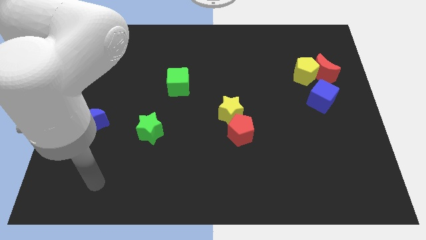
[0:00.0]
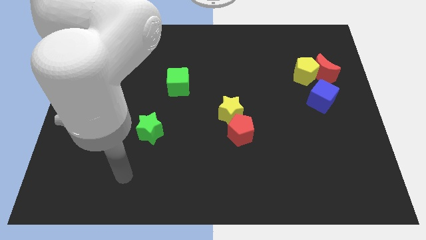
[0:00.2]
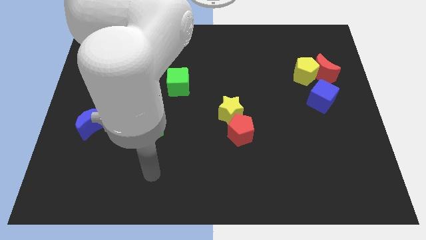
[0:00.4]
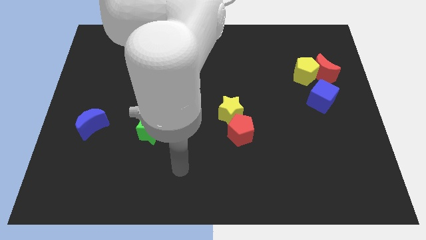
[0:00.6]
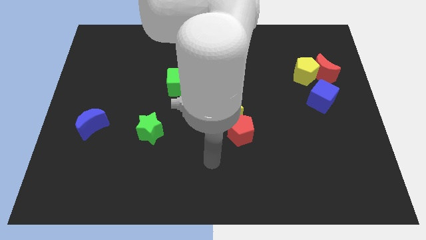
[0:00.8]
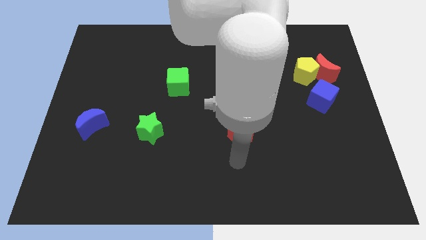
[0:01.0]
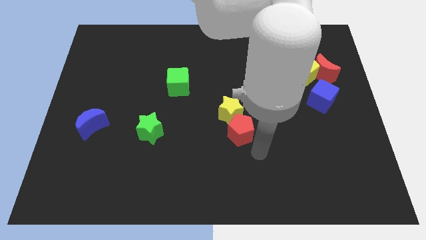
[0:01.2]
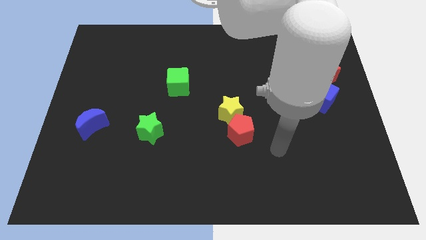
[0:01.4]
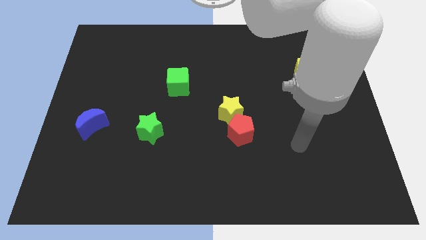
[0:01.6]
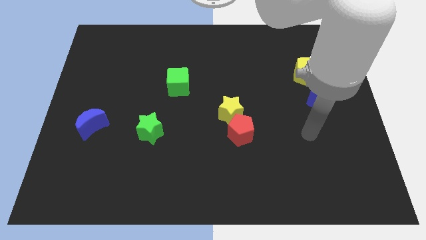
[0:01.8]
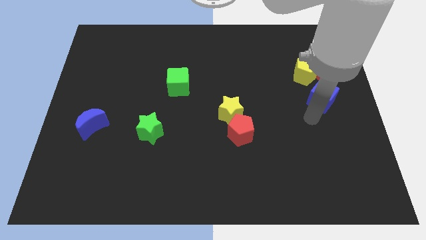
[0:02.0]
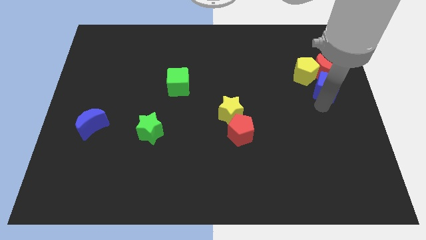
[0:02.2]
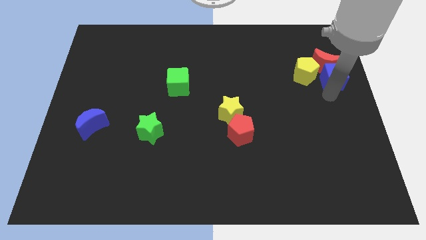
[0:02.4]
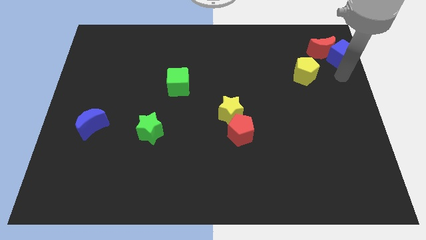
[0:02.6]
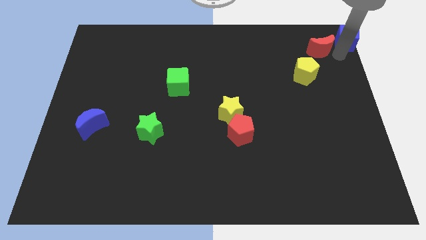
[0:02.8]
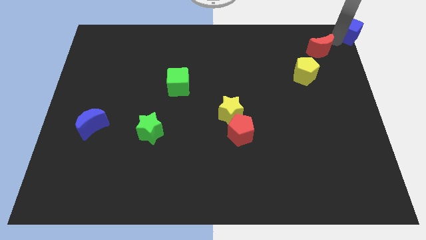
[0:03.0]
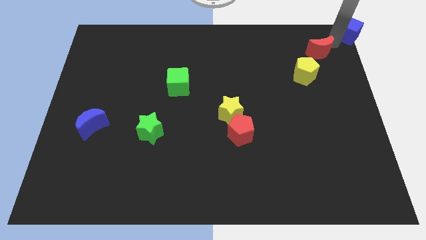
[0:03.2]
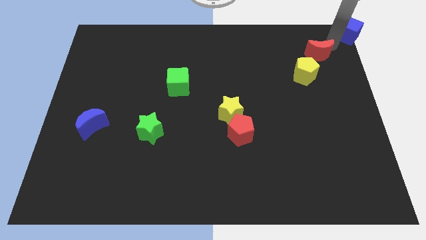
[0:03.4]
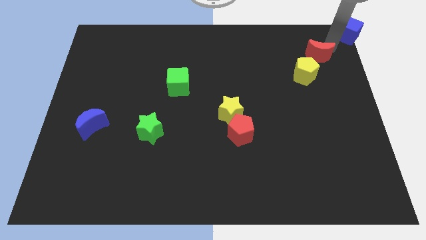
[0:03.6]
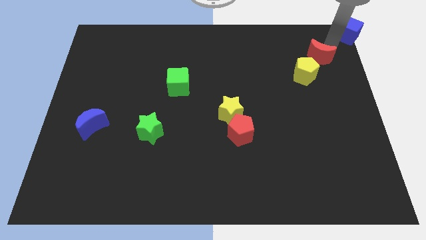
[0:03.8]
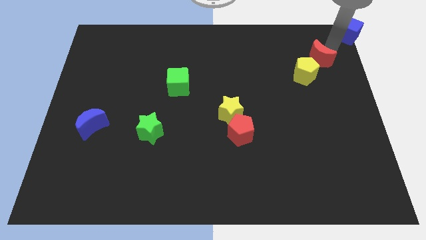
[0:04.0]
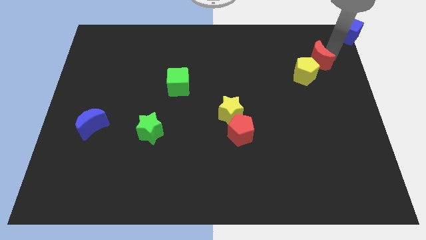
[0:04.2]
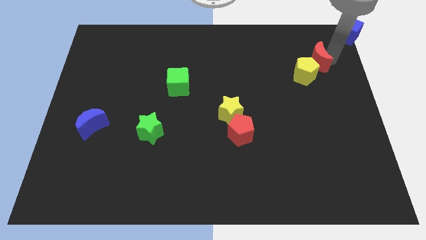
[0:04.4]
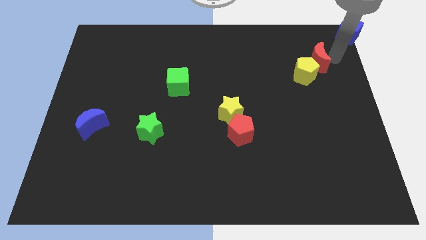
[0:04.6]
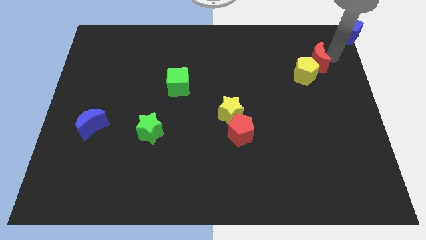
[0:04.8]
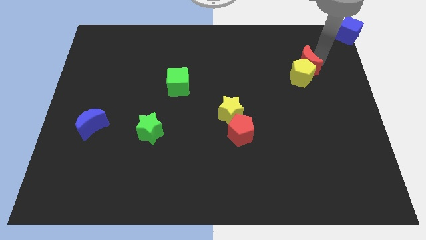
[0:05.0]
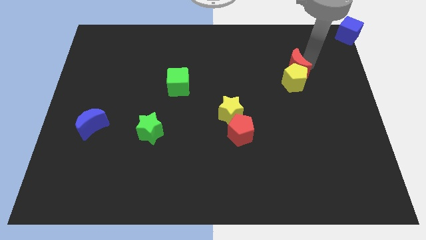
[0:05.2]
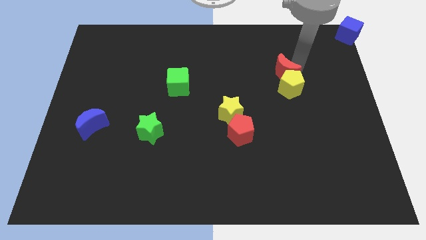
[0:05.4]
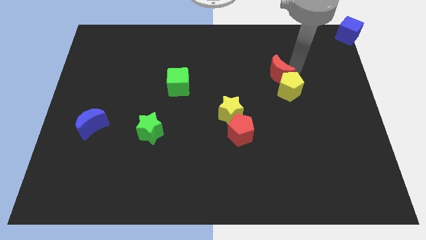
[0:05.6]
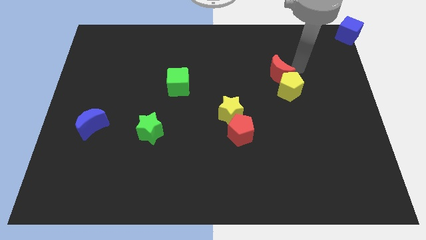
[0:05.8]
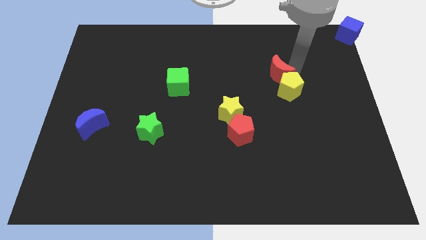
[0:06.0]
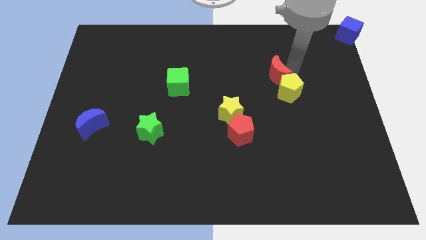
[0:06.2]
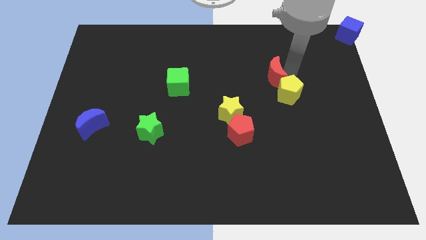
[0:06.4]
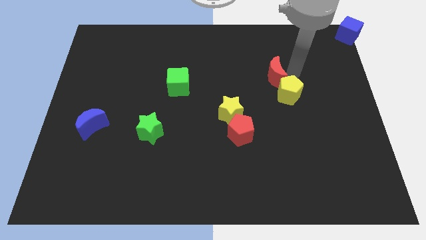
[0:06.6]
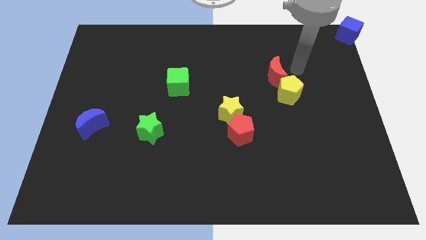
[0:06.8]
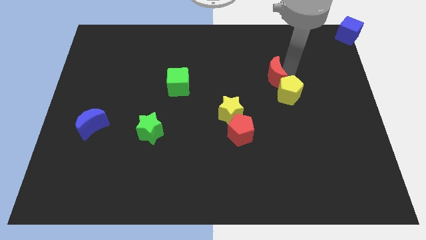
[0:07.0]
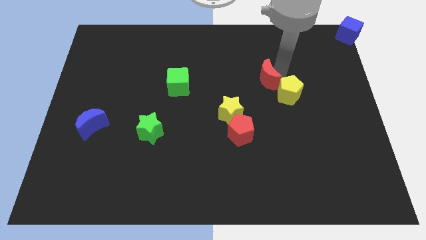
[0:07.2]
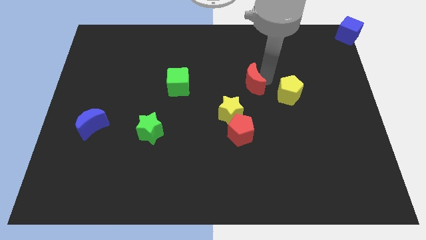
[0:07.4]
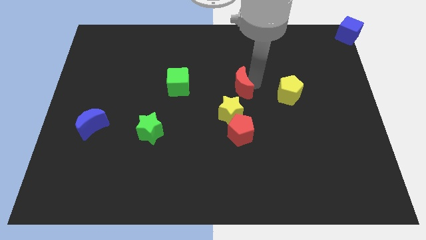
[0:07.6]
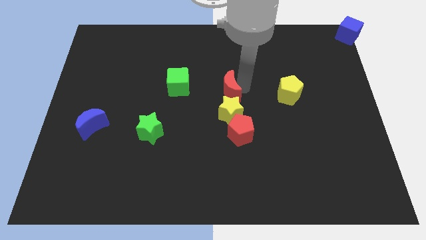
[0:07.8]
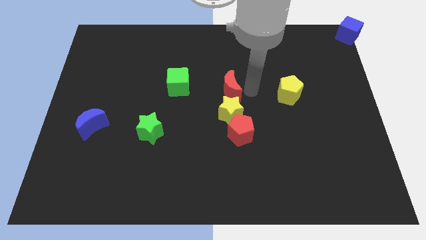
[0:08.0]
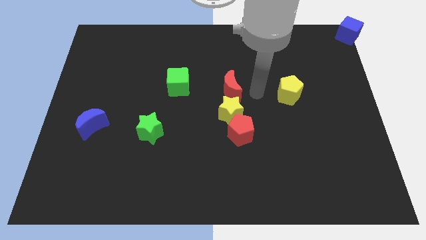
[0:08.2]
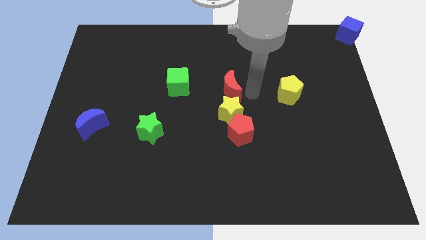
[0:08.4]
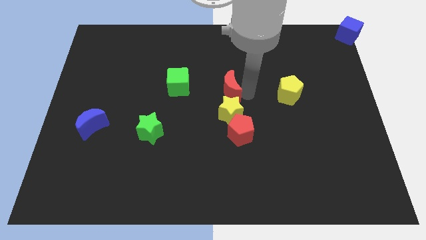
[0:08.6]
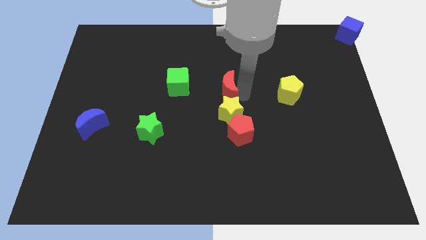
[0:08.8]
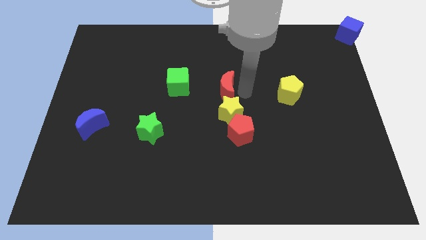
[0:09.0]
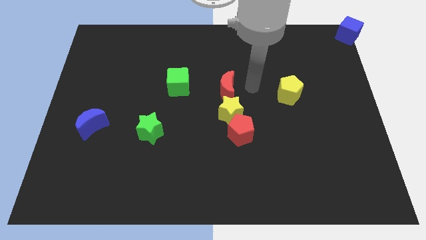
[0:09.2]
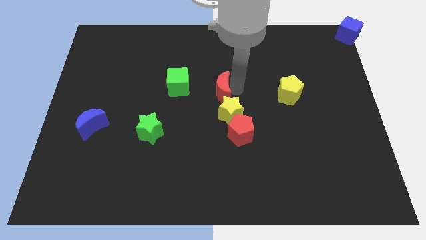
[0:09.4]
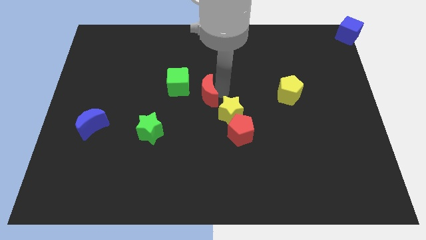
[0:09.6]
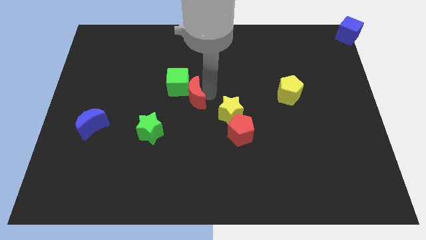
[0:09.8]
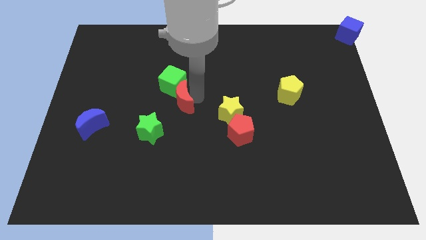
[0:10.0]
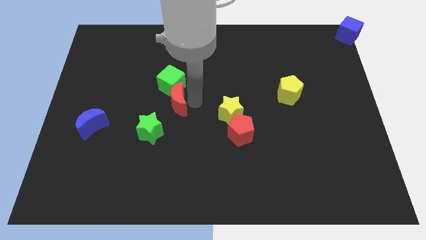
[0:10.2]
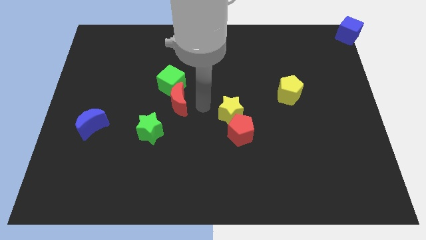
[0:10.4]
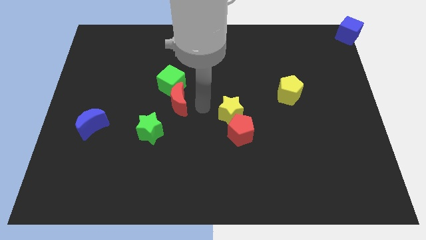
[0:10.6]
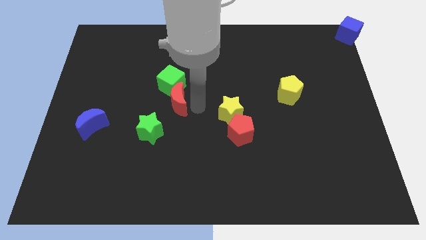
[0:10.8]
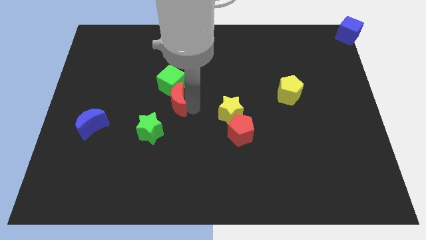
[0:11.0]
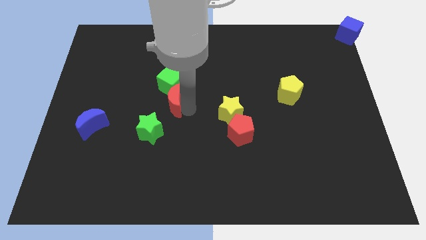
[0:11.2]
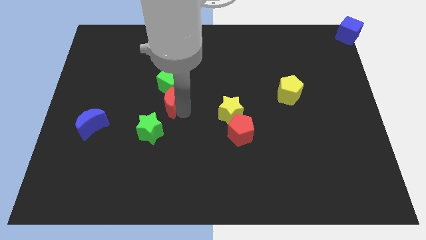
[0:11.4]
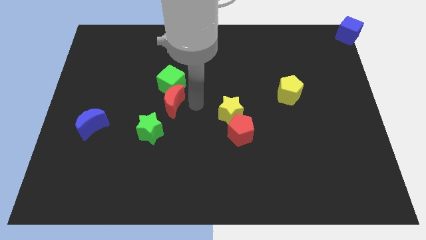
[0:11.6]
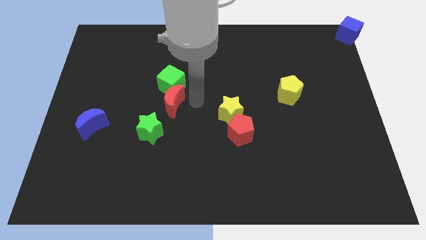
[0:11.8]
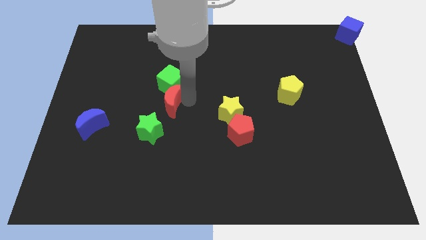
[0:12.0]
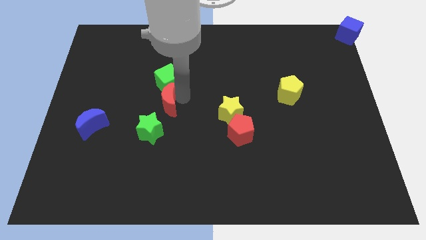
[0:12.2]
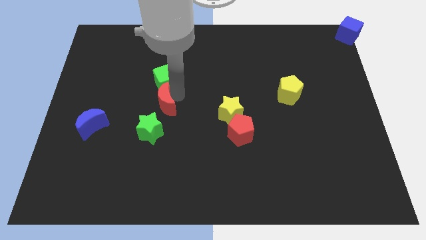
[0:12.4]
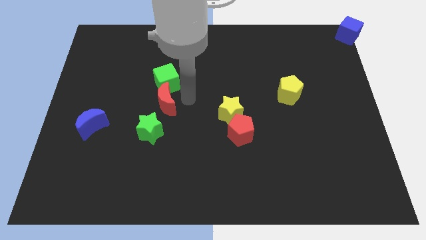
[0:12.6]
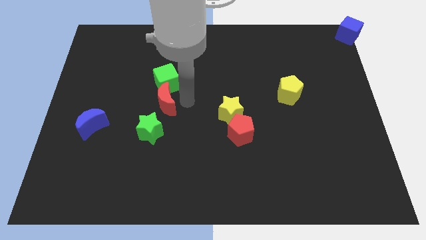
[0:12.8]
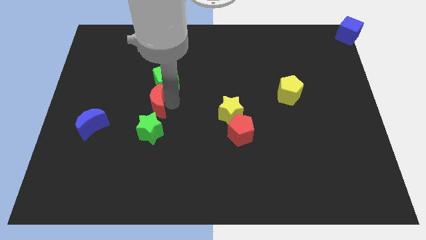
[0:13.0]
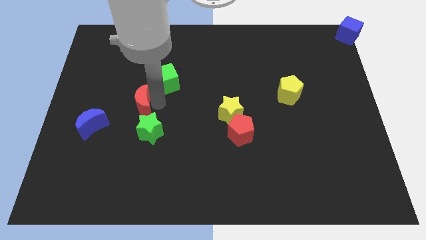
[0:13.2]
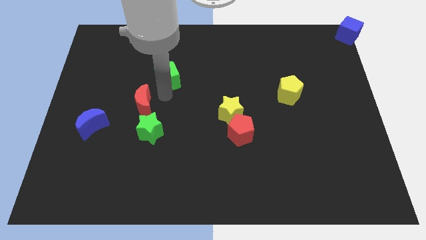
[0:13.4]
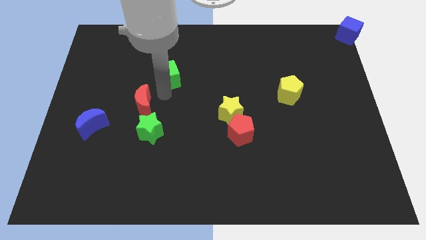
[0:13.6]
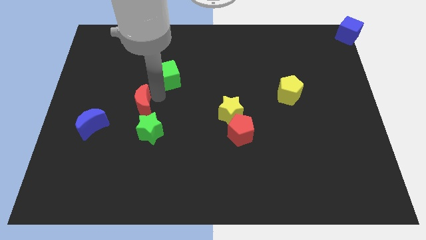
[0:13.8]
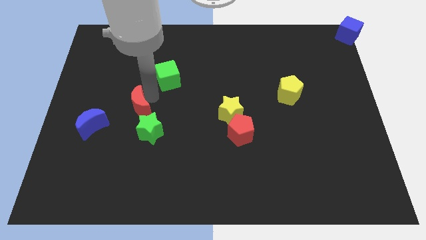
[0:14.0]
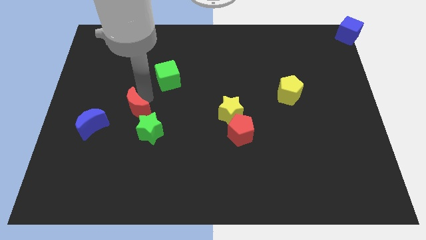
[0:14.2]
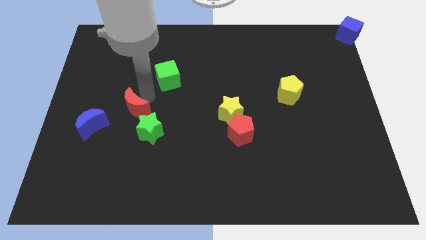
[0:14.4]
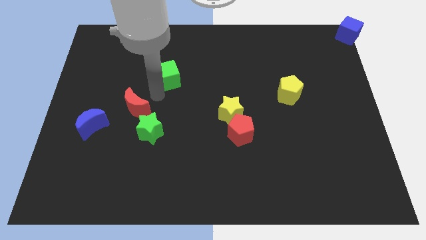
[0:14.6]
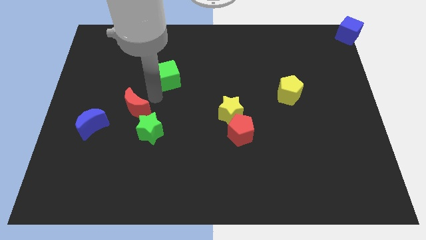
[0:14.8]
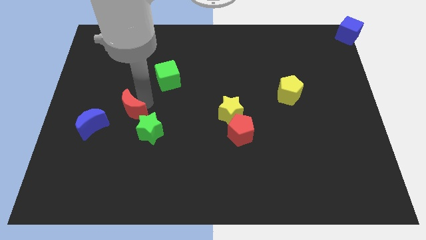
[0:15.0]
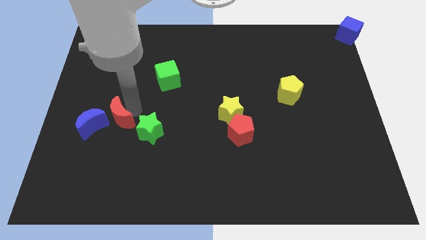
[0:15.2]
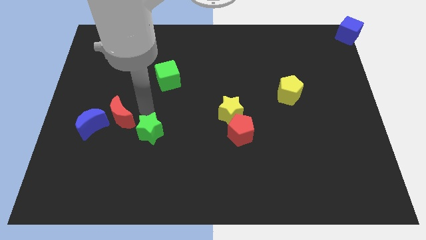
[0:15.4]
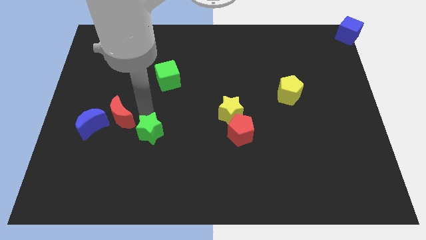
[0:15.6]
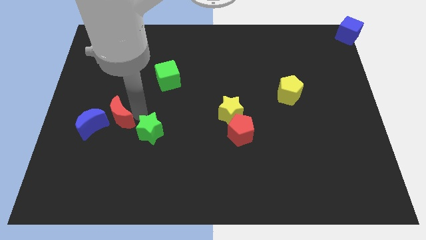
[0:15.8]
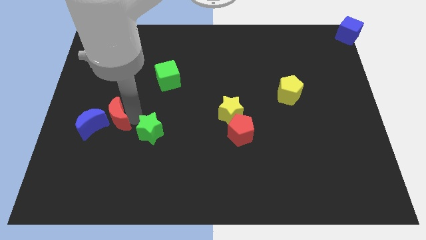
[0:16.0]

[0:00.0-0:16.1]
put the red moon close to the blue moon
